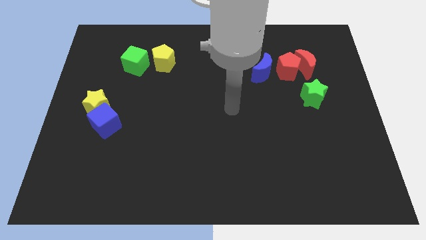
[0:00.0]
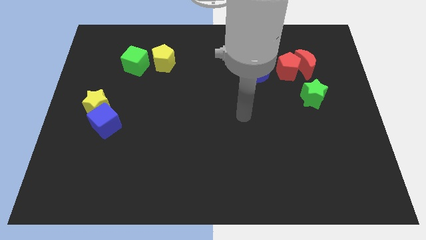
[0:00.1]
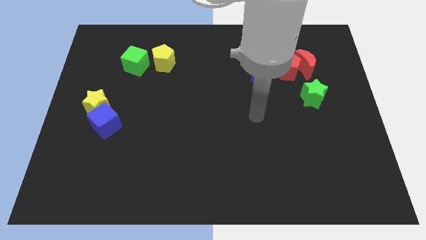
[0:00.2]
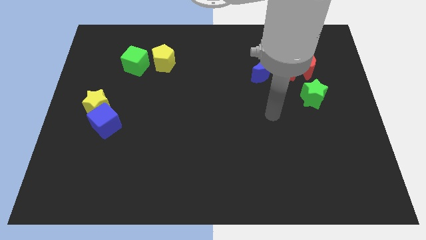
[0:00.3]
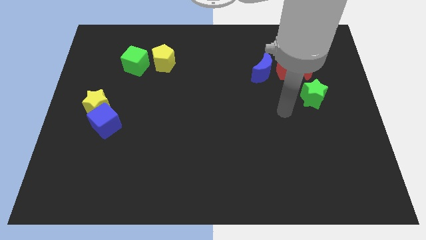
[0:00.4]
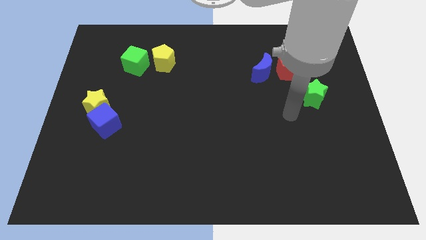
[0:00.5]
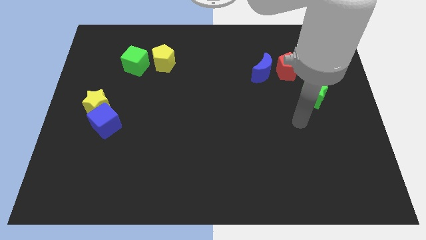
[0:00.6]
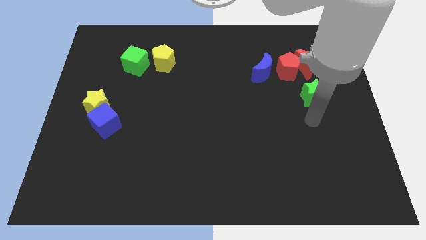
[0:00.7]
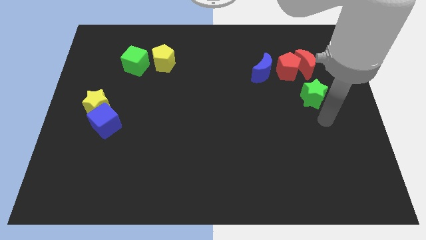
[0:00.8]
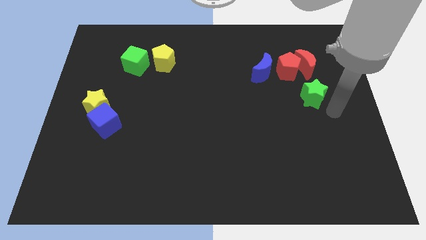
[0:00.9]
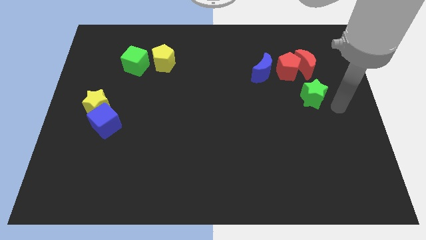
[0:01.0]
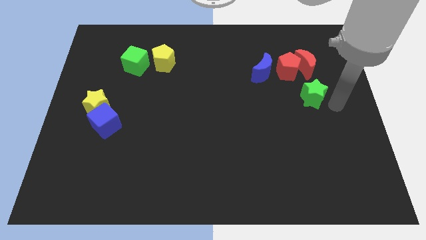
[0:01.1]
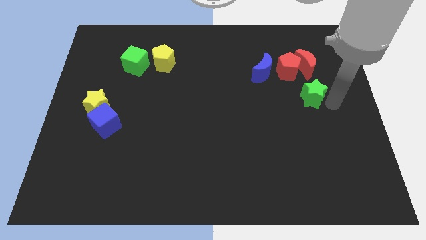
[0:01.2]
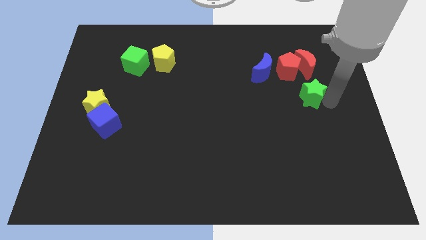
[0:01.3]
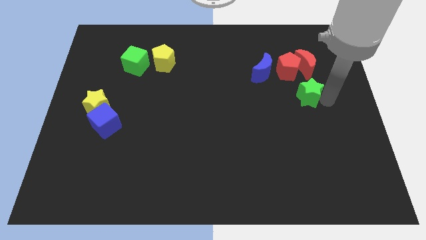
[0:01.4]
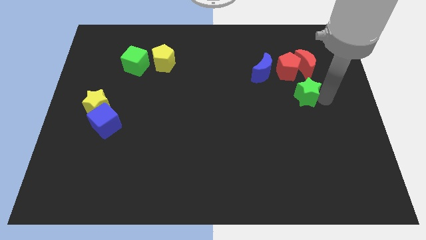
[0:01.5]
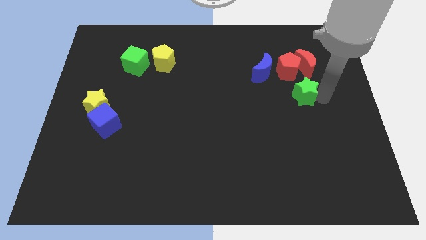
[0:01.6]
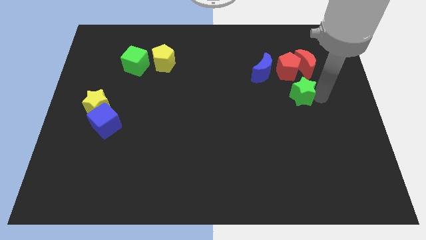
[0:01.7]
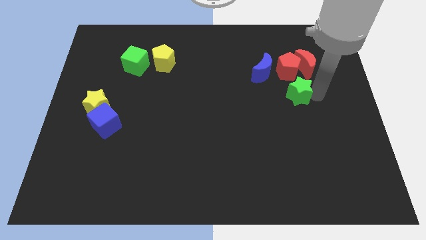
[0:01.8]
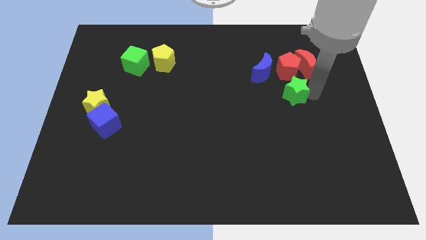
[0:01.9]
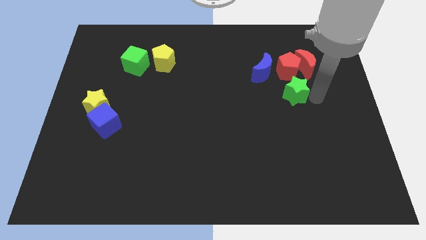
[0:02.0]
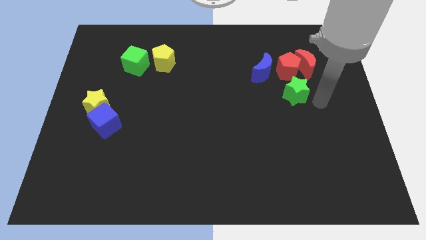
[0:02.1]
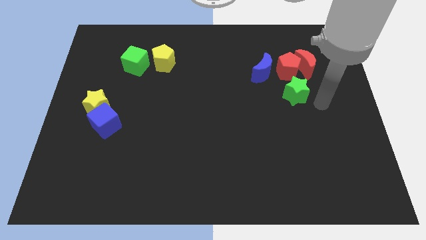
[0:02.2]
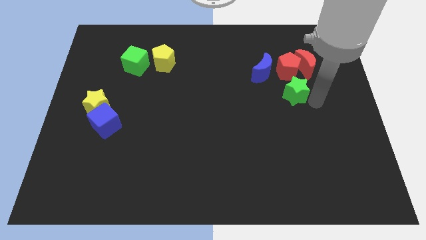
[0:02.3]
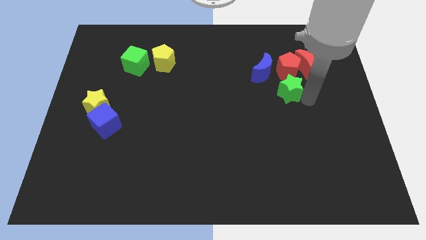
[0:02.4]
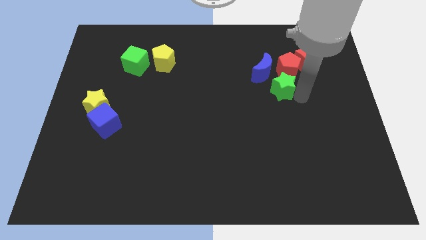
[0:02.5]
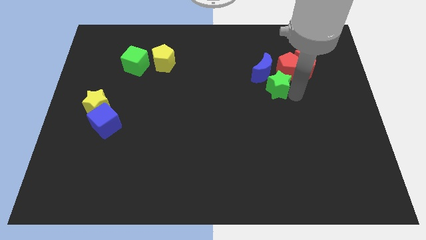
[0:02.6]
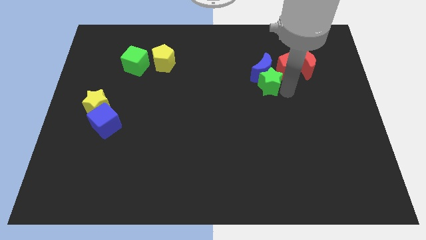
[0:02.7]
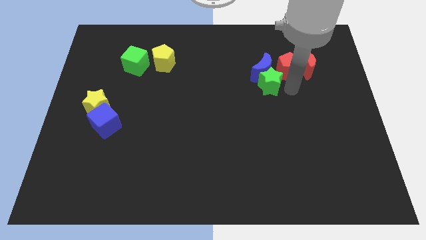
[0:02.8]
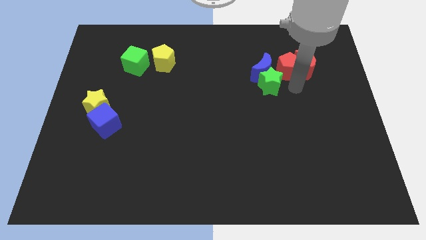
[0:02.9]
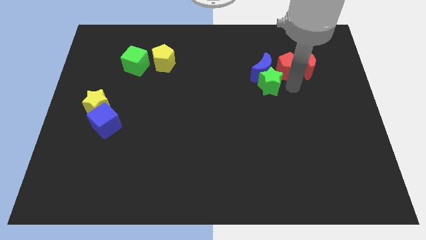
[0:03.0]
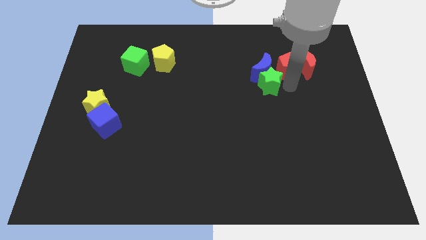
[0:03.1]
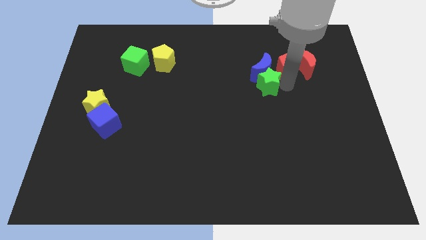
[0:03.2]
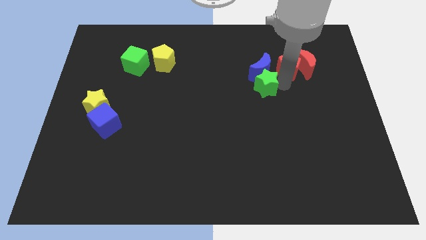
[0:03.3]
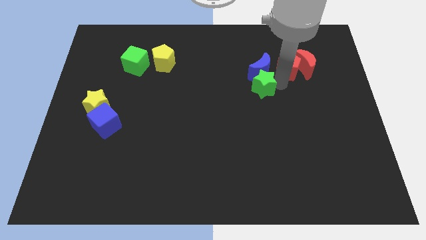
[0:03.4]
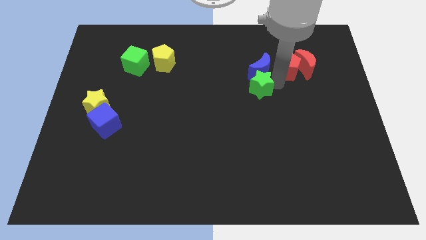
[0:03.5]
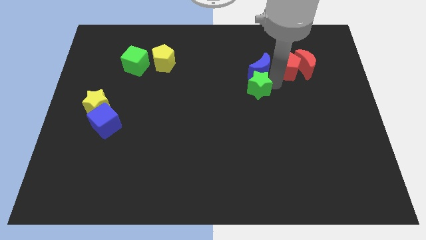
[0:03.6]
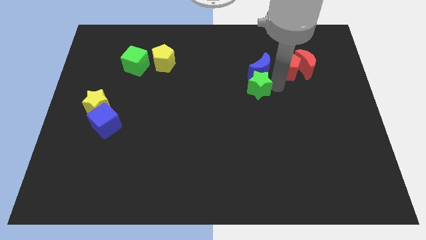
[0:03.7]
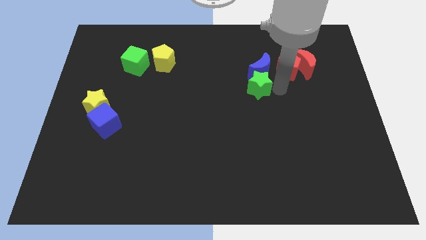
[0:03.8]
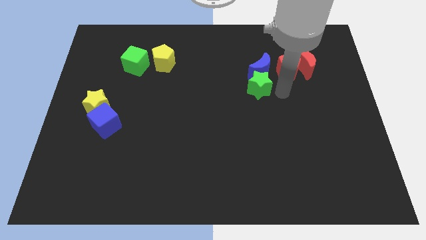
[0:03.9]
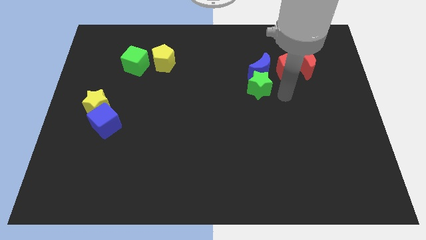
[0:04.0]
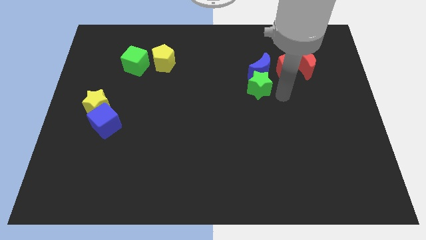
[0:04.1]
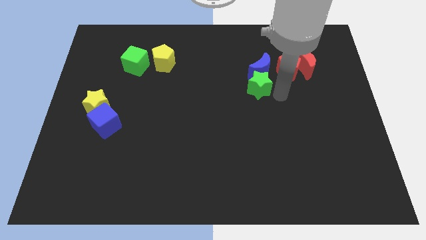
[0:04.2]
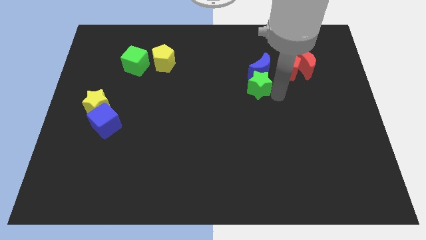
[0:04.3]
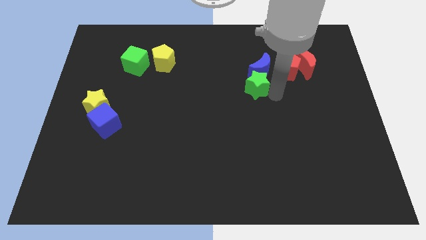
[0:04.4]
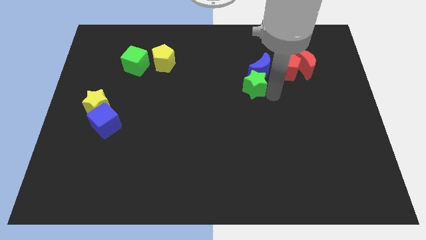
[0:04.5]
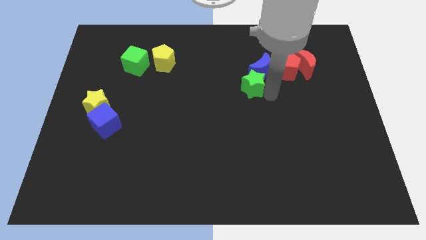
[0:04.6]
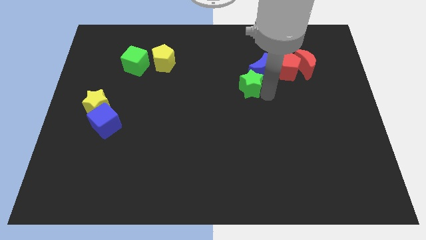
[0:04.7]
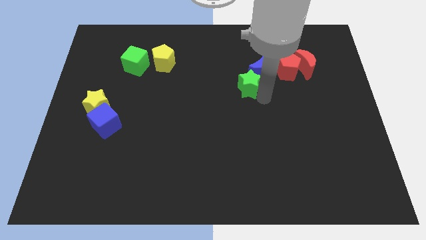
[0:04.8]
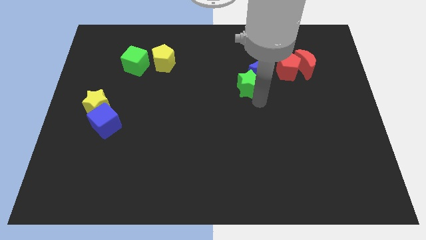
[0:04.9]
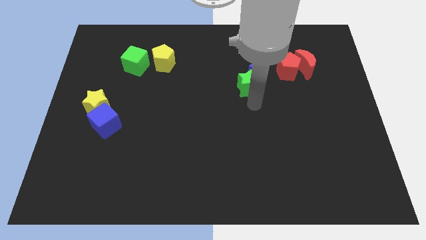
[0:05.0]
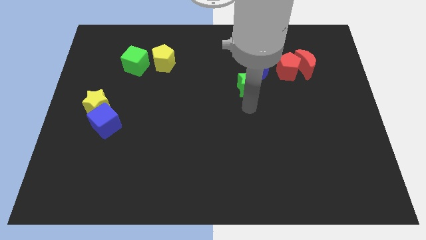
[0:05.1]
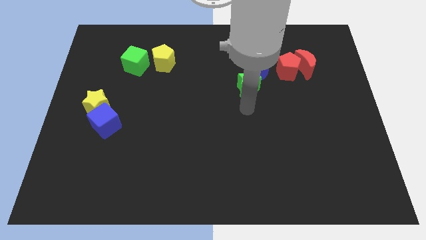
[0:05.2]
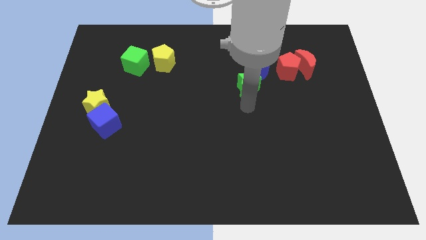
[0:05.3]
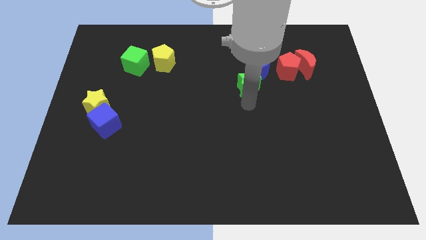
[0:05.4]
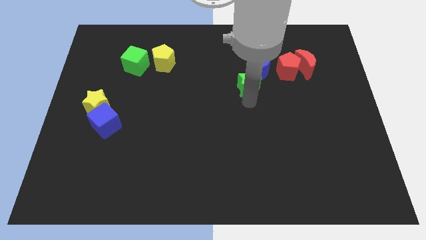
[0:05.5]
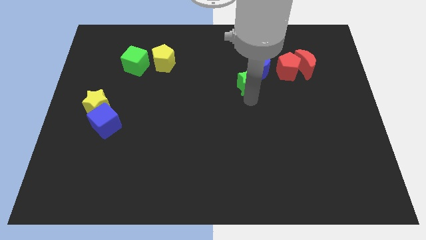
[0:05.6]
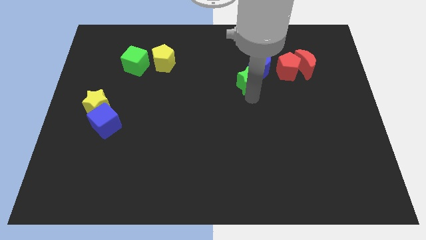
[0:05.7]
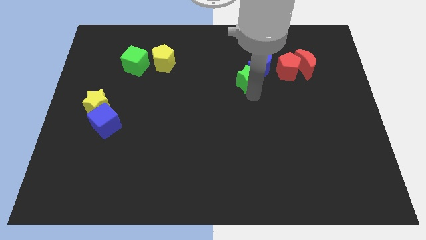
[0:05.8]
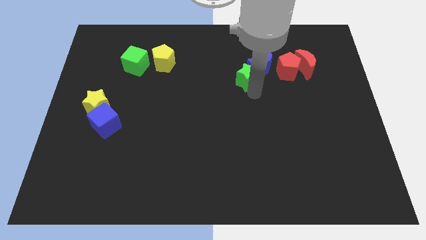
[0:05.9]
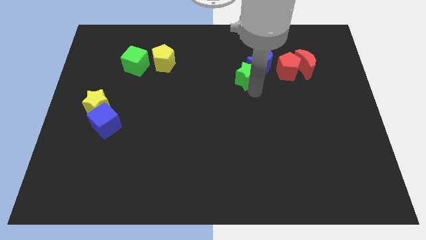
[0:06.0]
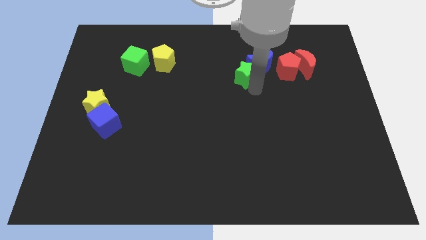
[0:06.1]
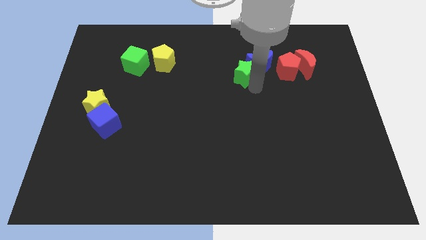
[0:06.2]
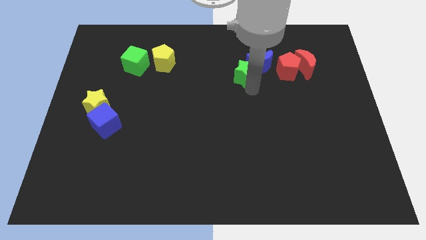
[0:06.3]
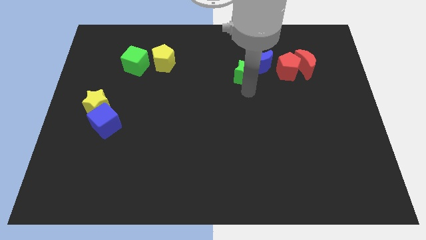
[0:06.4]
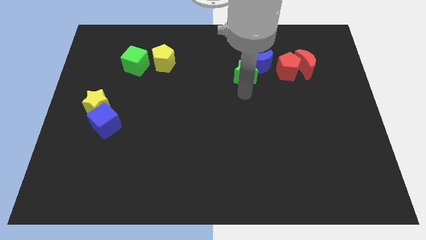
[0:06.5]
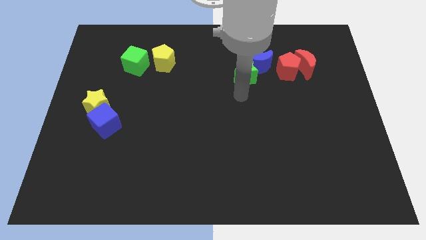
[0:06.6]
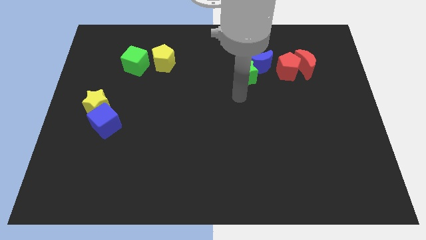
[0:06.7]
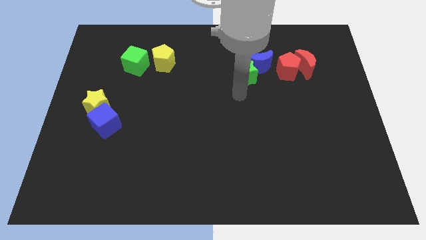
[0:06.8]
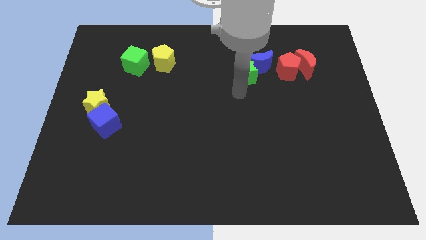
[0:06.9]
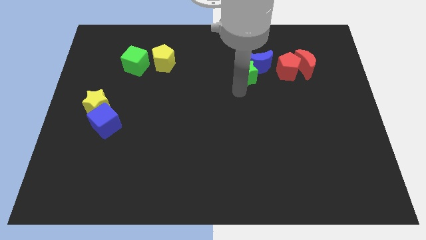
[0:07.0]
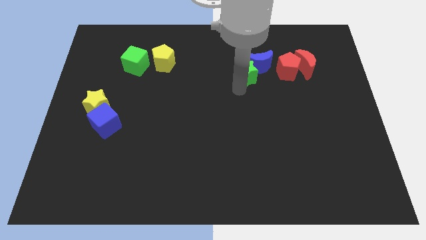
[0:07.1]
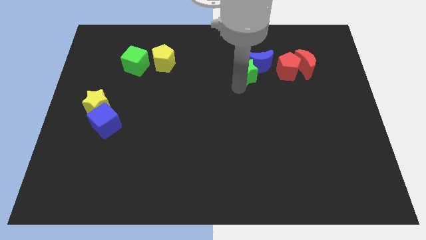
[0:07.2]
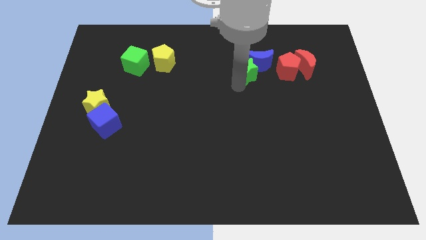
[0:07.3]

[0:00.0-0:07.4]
put the green star just left of the red moon
